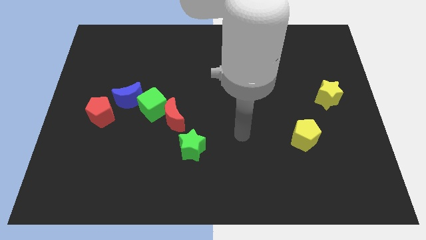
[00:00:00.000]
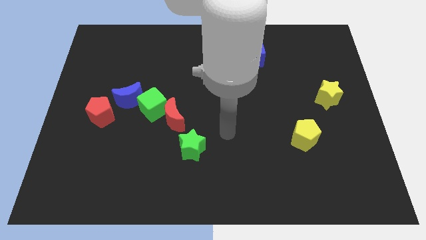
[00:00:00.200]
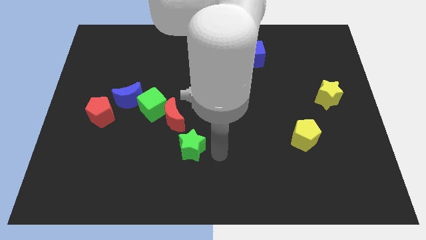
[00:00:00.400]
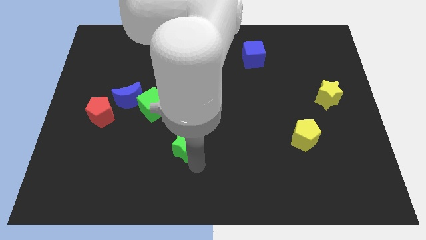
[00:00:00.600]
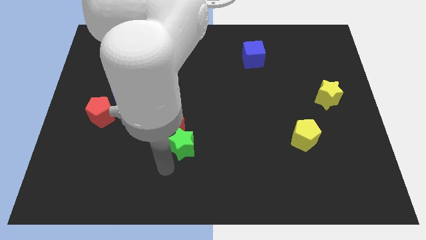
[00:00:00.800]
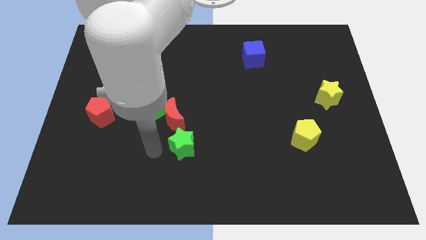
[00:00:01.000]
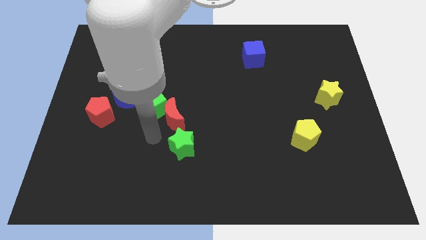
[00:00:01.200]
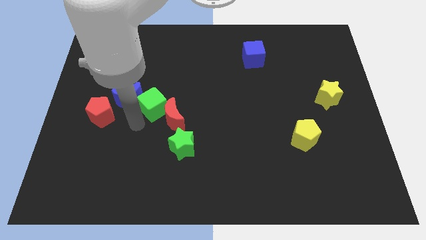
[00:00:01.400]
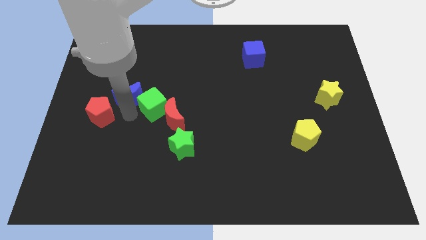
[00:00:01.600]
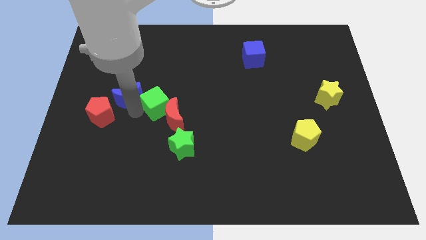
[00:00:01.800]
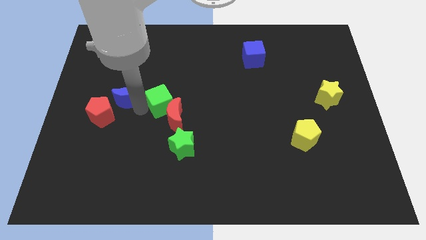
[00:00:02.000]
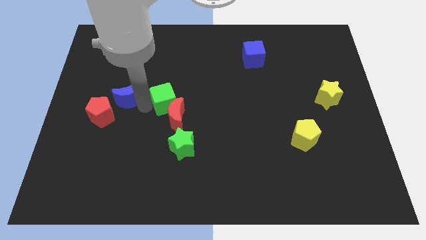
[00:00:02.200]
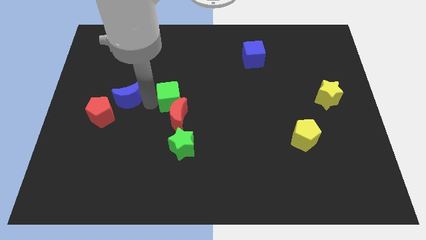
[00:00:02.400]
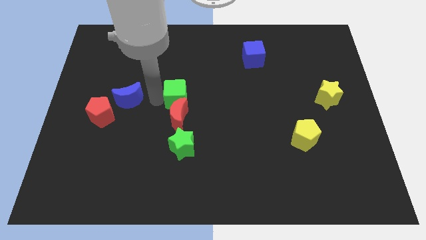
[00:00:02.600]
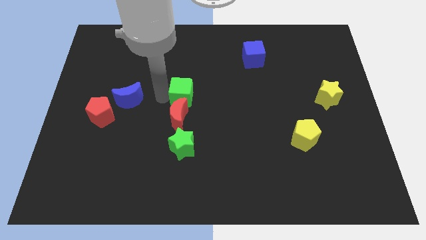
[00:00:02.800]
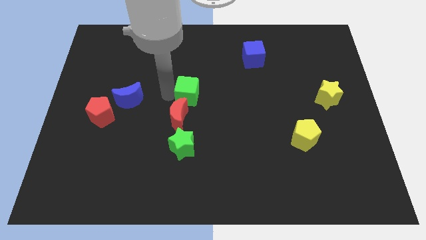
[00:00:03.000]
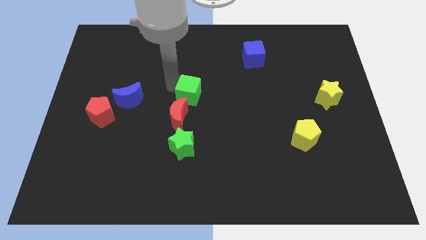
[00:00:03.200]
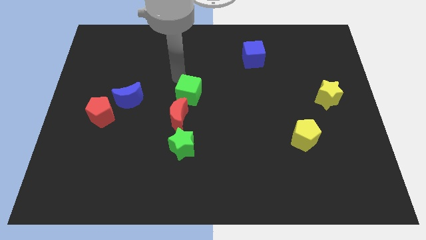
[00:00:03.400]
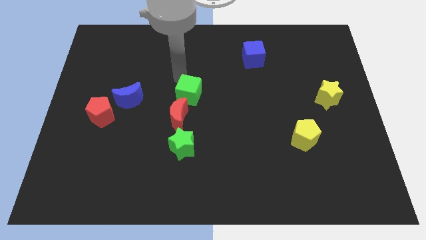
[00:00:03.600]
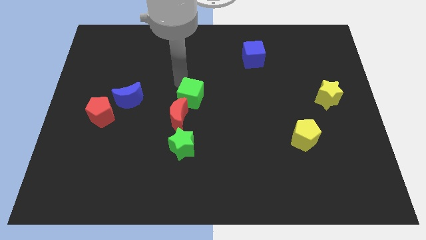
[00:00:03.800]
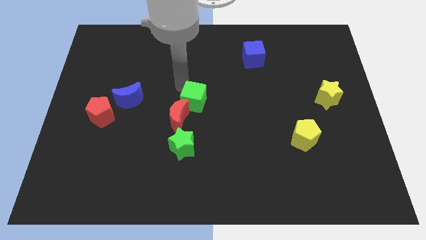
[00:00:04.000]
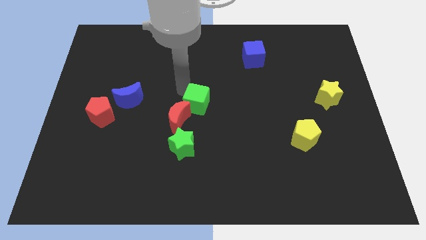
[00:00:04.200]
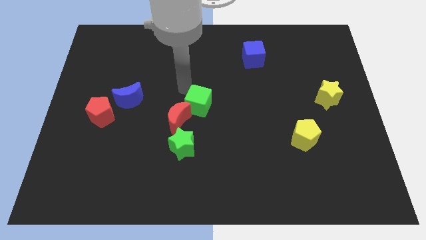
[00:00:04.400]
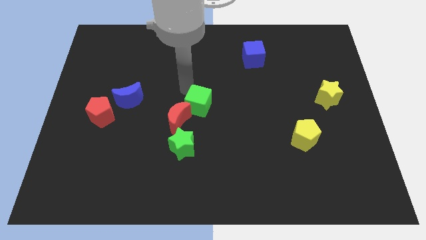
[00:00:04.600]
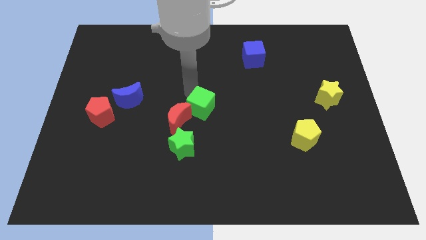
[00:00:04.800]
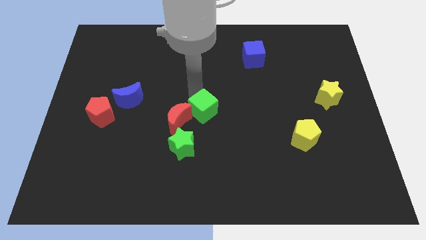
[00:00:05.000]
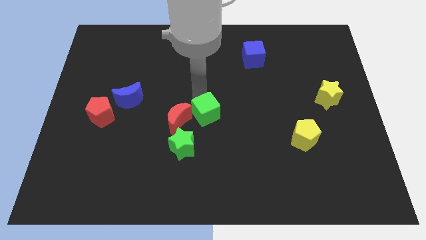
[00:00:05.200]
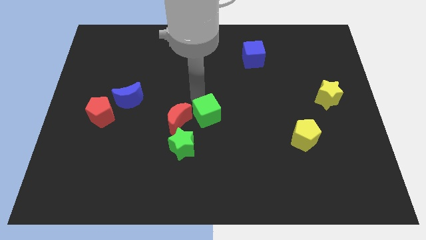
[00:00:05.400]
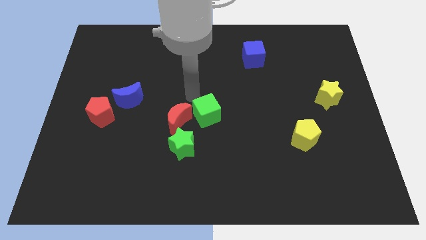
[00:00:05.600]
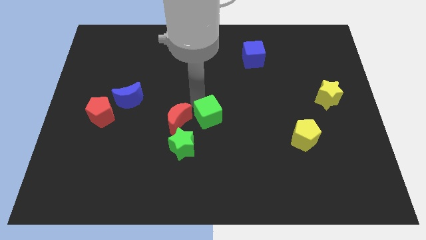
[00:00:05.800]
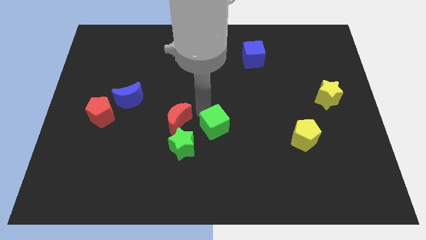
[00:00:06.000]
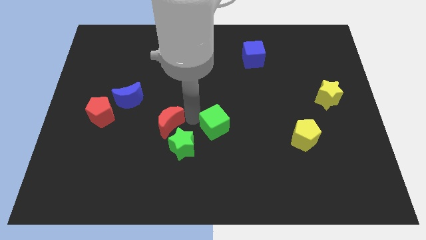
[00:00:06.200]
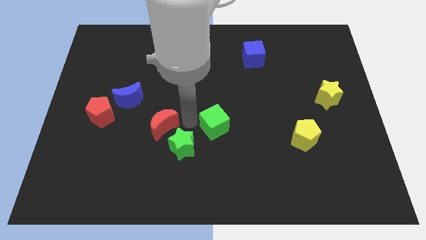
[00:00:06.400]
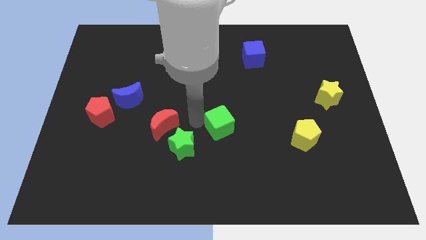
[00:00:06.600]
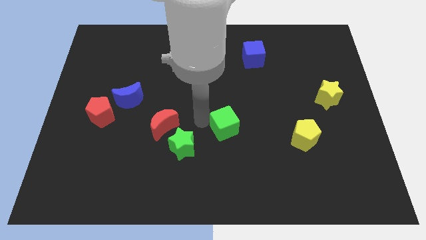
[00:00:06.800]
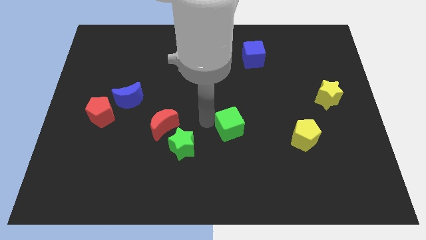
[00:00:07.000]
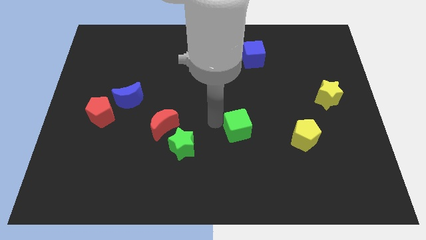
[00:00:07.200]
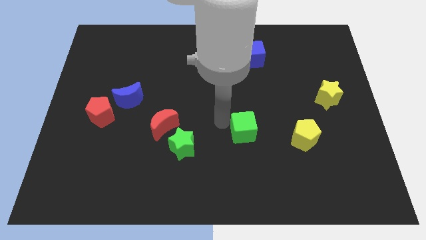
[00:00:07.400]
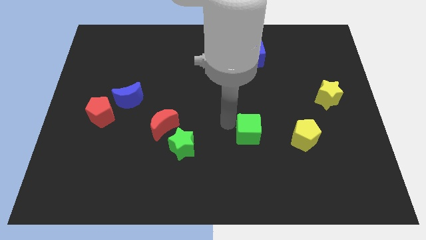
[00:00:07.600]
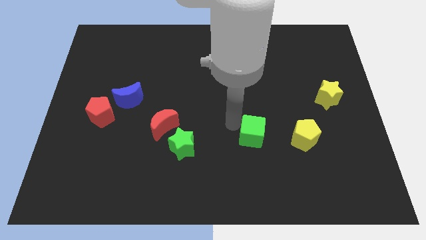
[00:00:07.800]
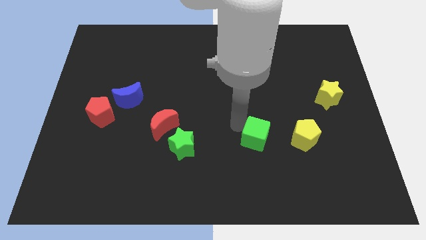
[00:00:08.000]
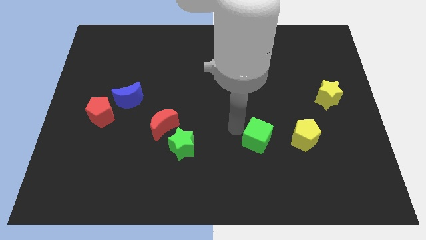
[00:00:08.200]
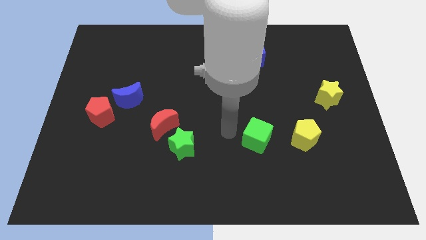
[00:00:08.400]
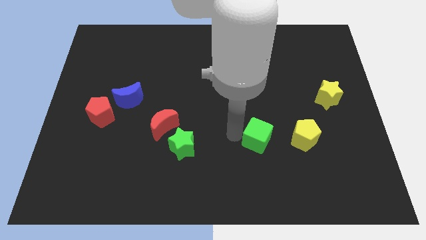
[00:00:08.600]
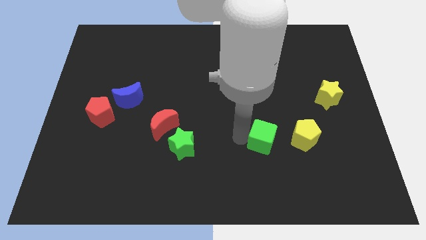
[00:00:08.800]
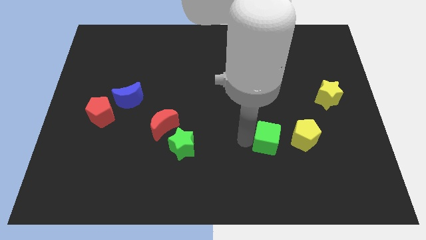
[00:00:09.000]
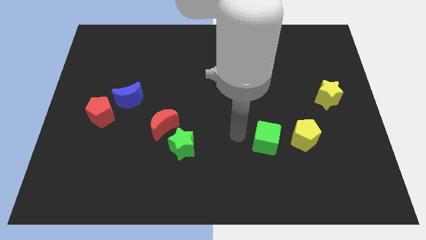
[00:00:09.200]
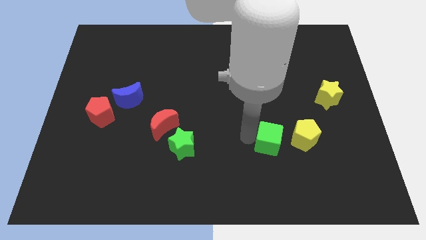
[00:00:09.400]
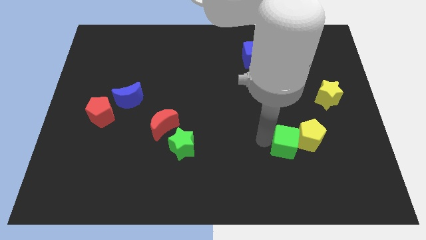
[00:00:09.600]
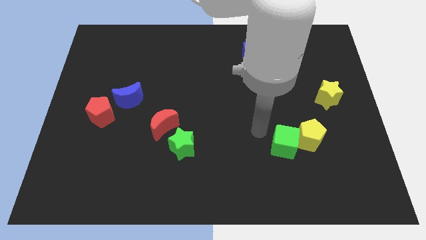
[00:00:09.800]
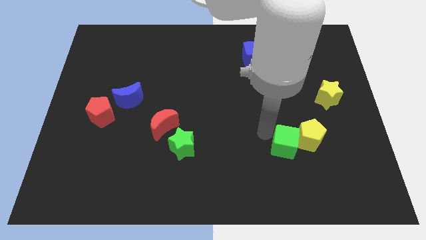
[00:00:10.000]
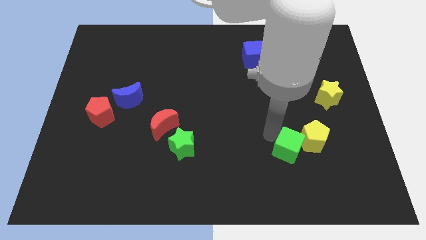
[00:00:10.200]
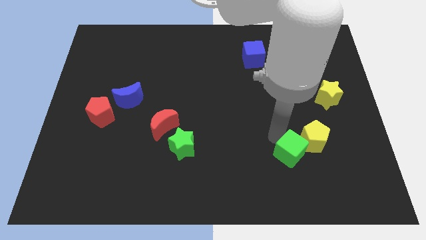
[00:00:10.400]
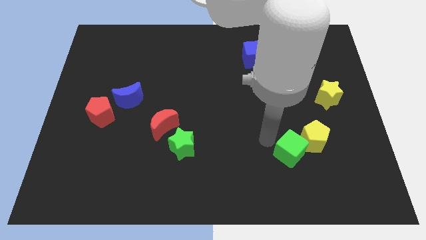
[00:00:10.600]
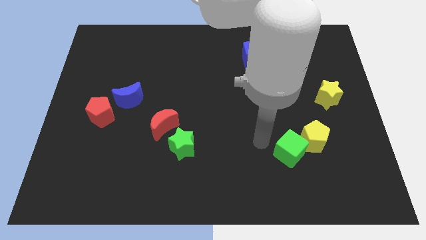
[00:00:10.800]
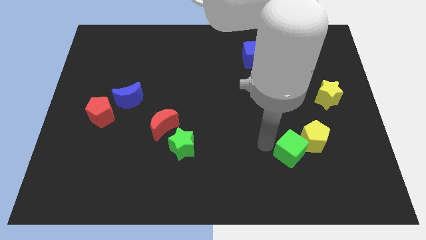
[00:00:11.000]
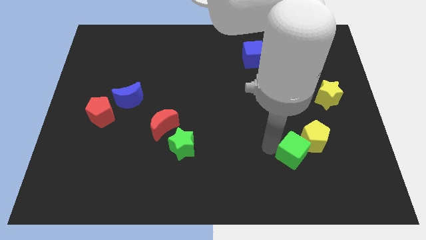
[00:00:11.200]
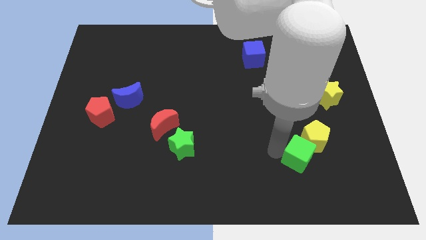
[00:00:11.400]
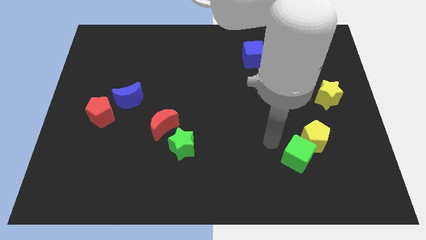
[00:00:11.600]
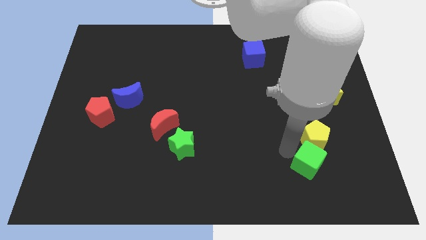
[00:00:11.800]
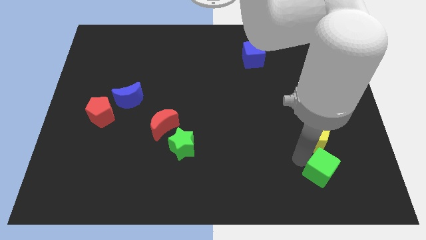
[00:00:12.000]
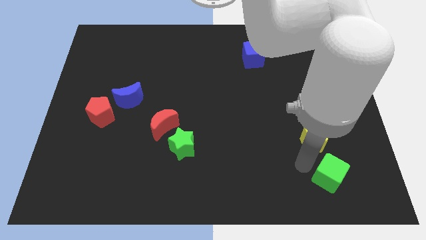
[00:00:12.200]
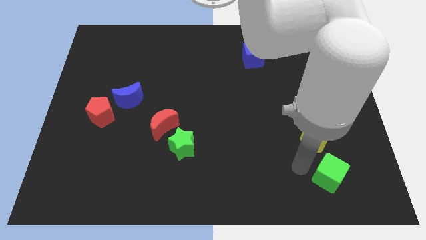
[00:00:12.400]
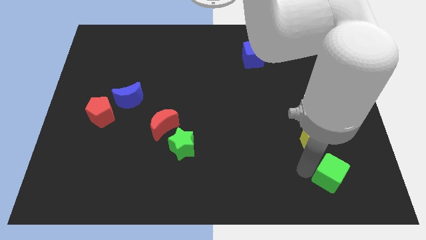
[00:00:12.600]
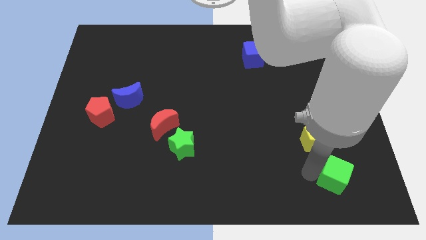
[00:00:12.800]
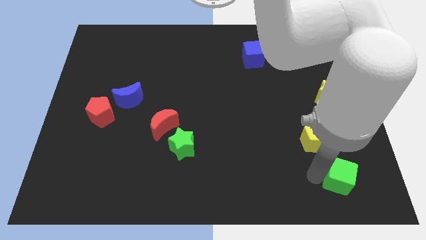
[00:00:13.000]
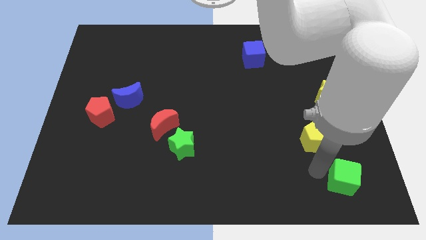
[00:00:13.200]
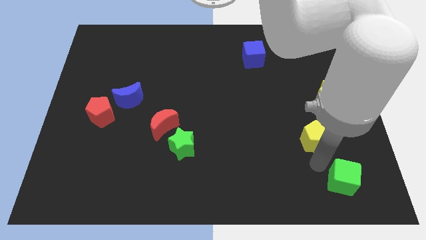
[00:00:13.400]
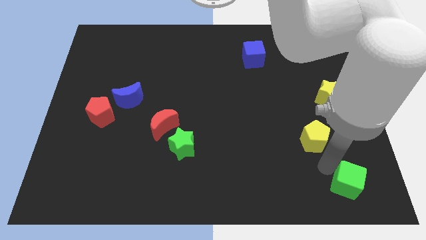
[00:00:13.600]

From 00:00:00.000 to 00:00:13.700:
slide the green cube to the bottom right corner
